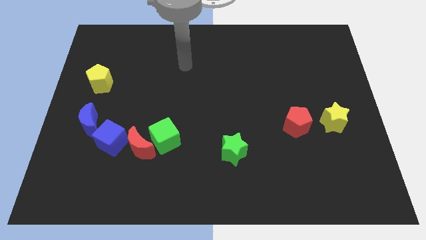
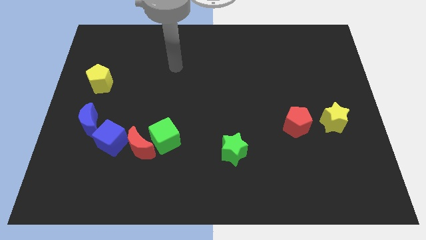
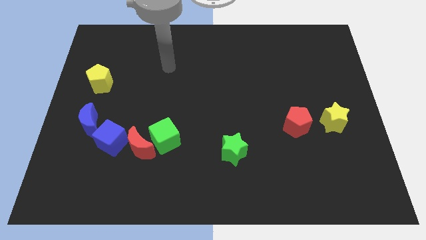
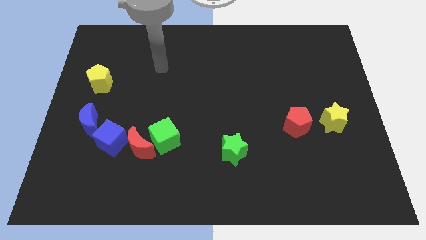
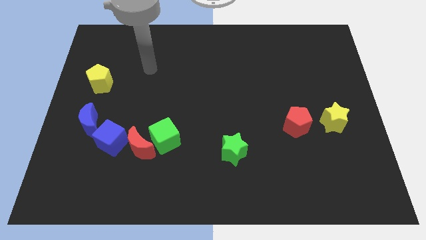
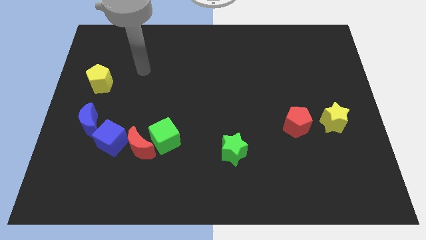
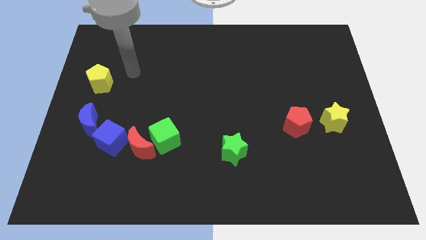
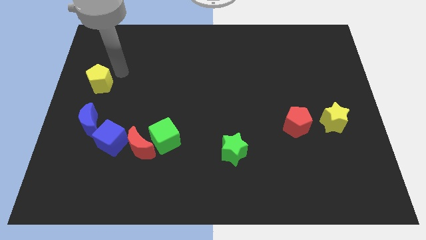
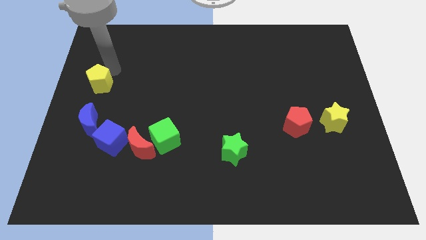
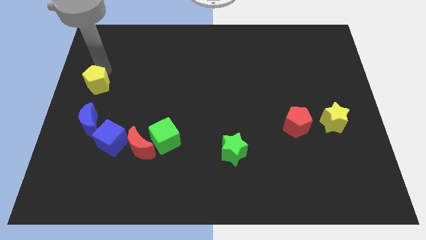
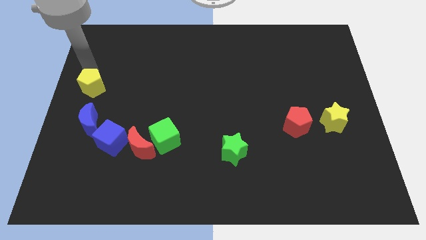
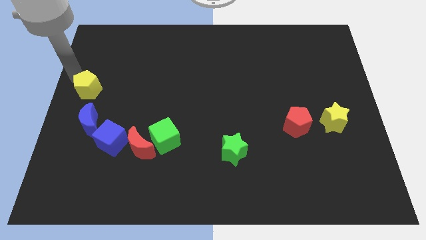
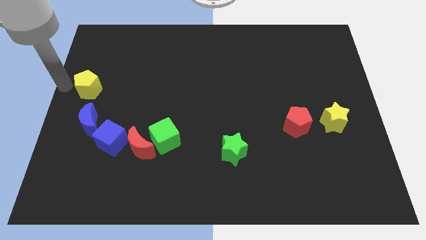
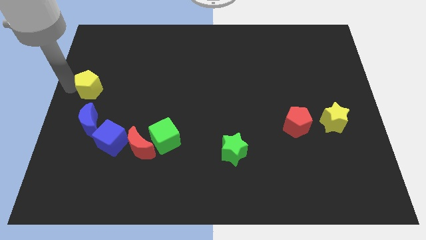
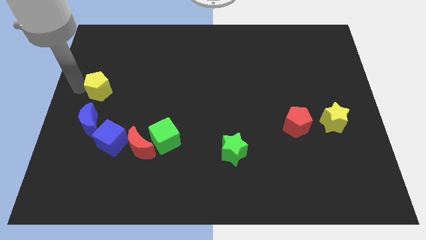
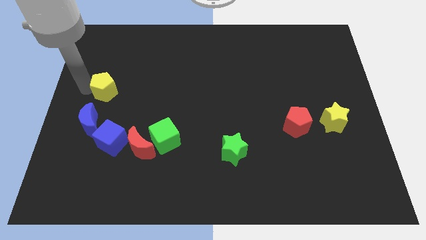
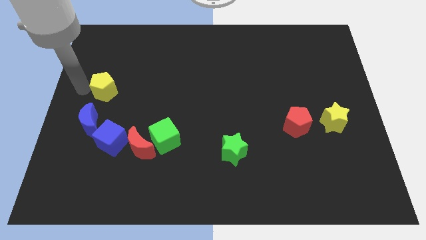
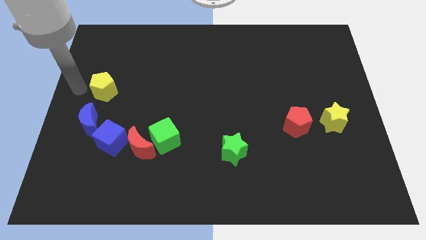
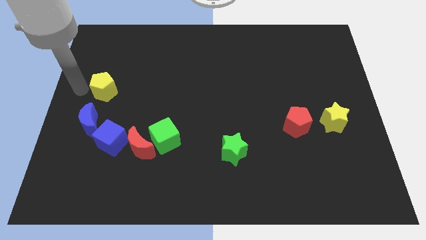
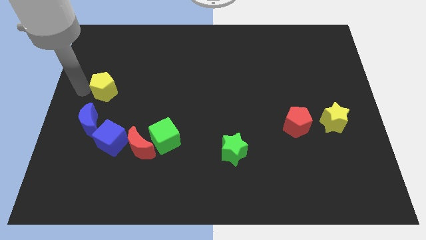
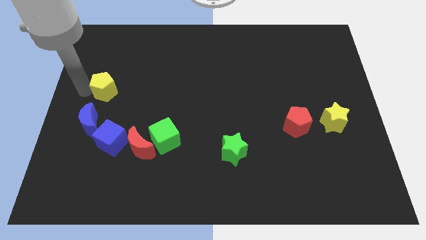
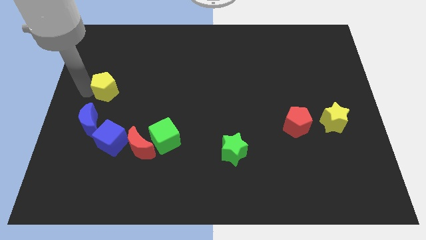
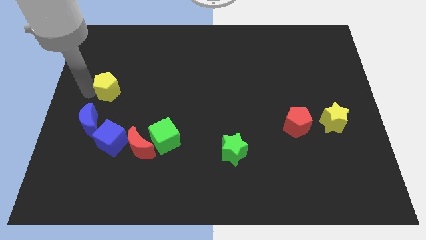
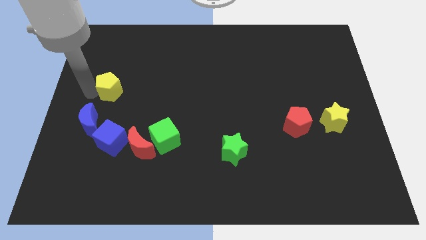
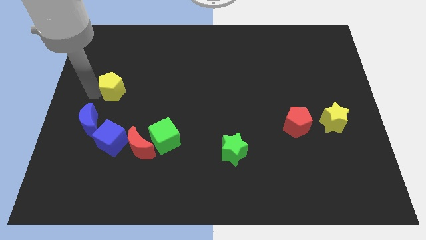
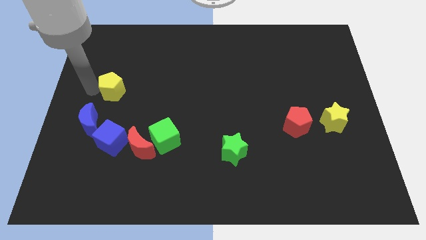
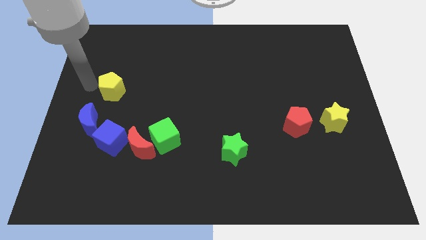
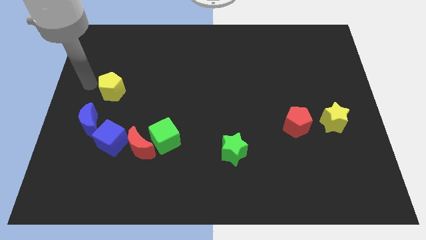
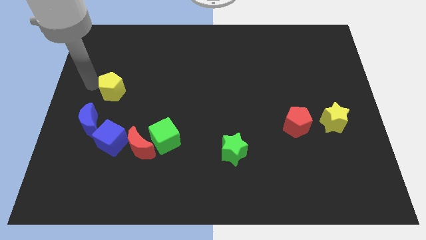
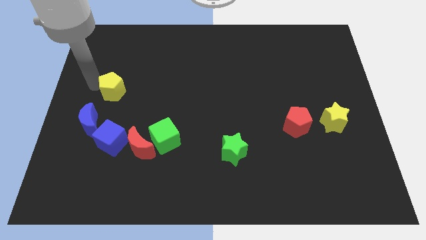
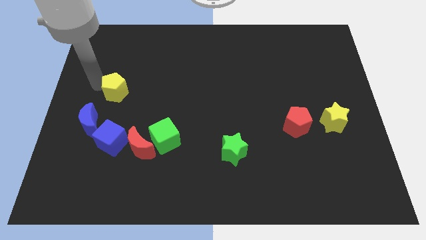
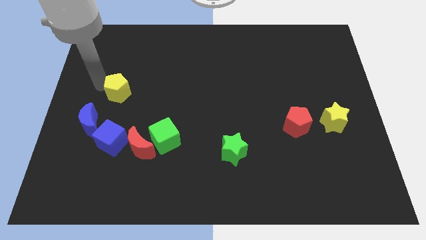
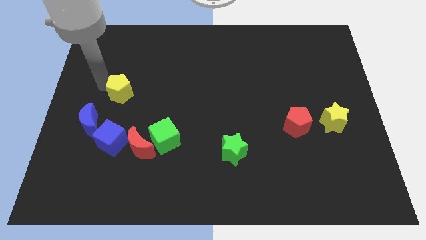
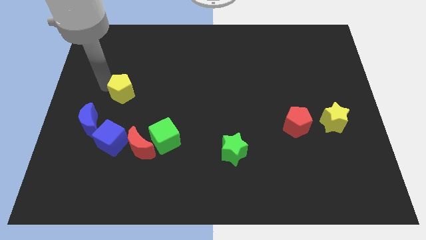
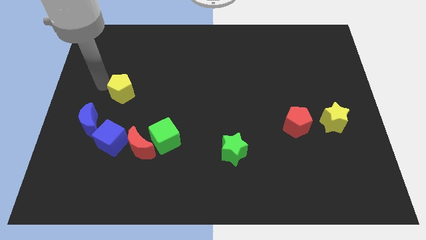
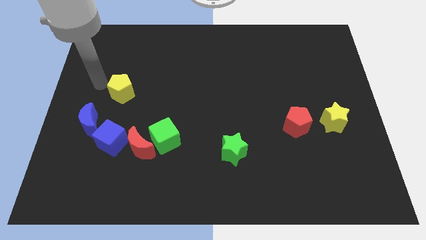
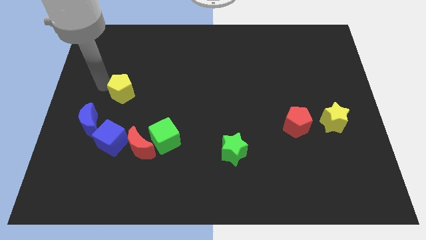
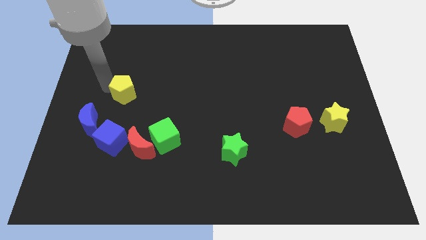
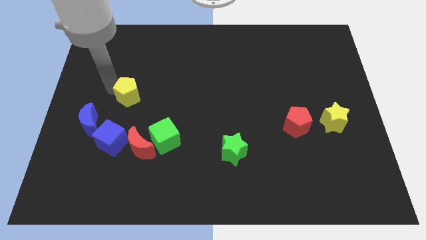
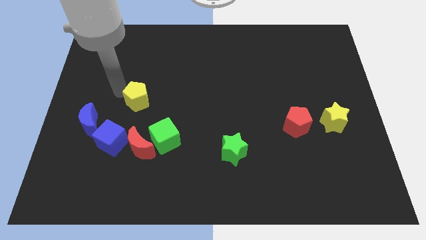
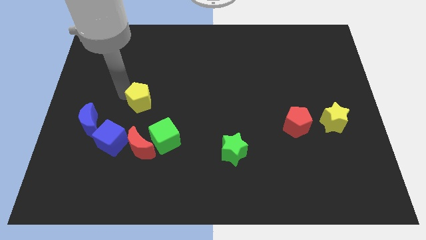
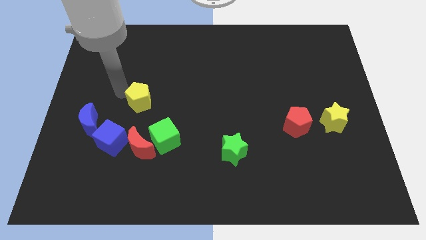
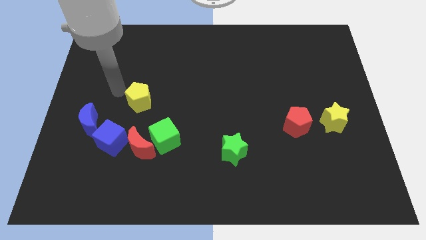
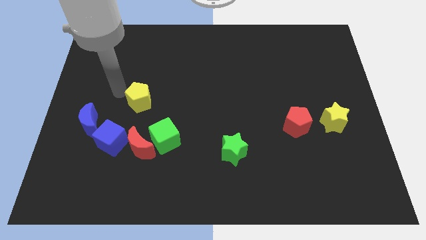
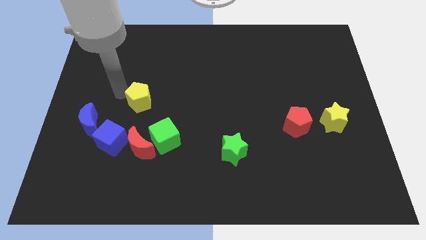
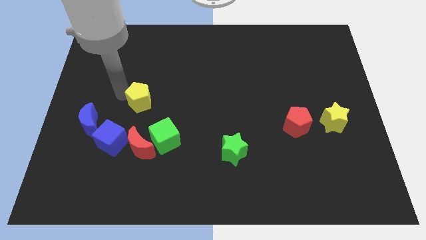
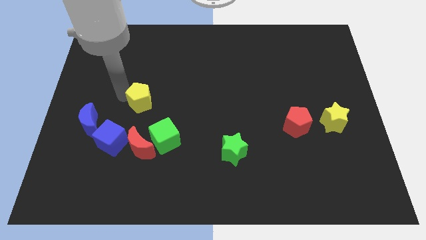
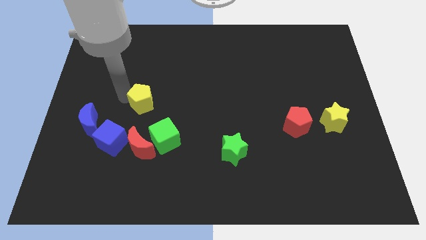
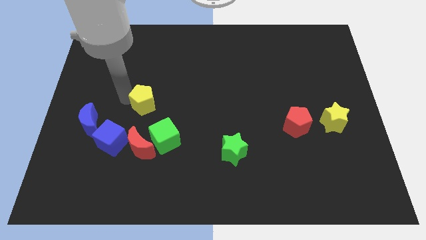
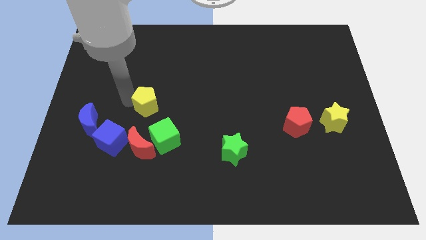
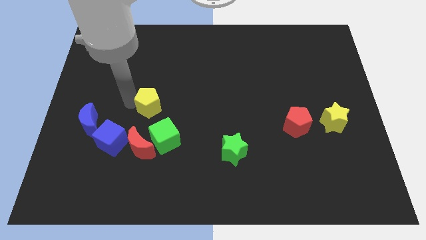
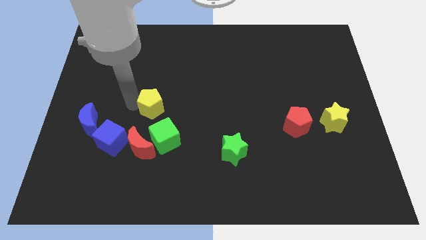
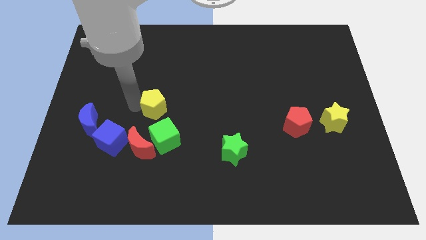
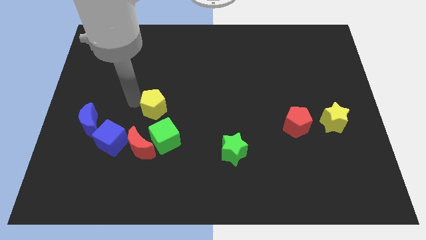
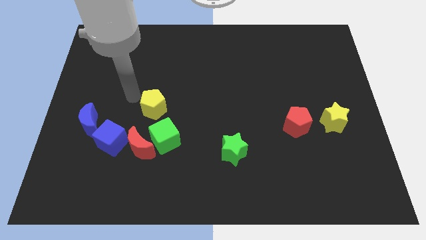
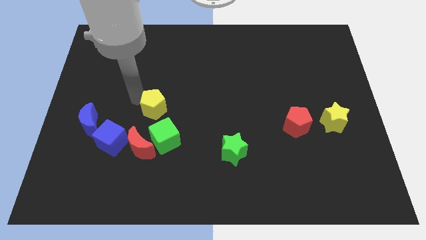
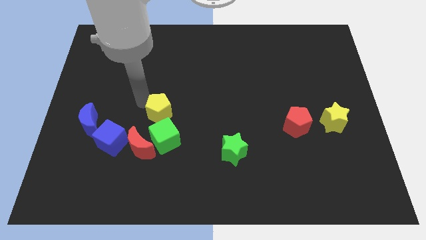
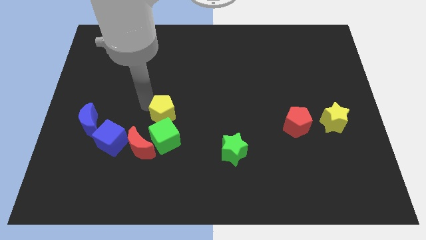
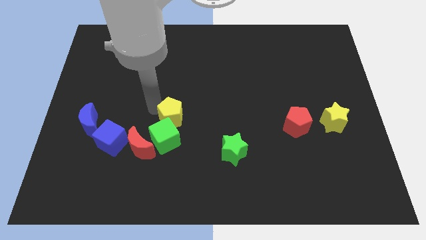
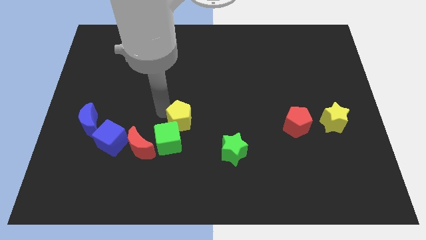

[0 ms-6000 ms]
push the yellow pentagon downwards and to the right

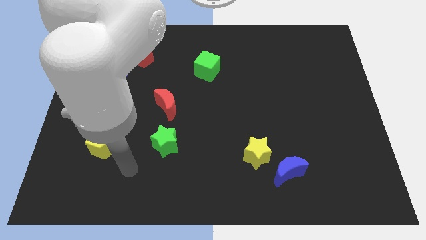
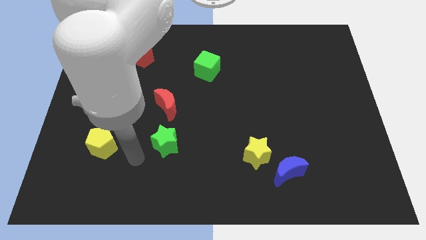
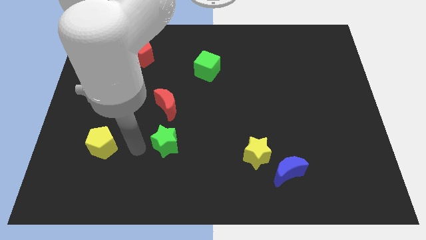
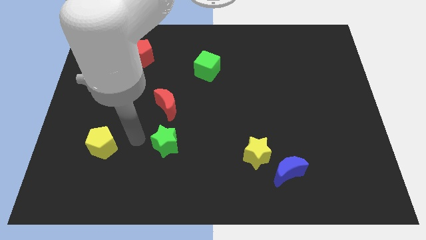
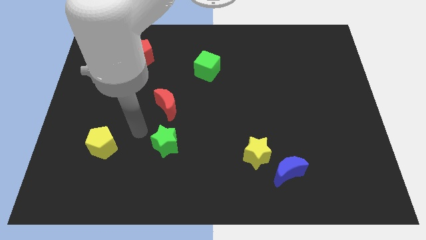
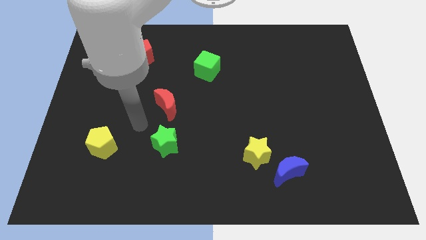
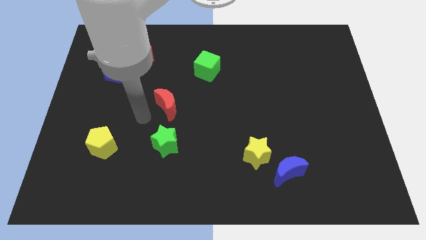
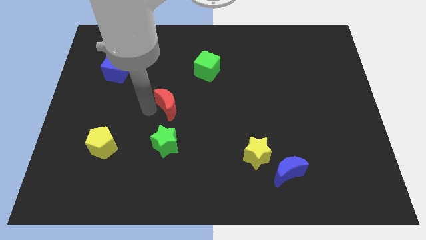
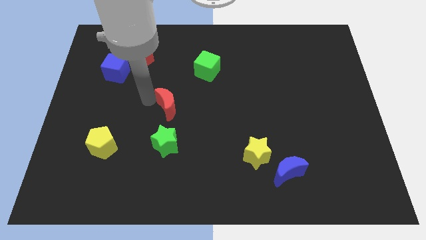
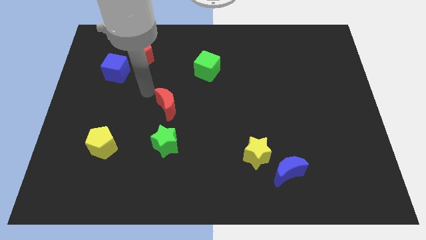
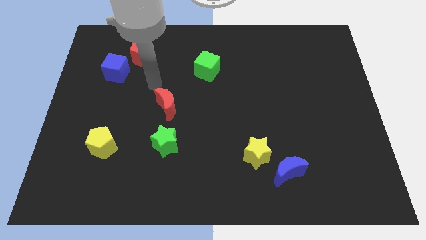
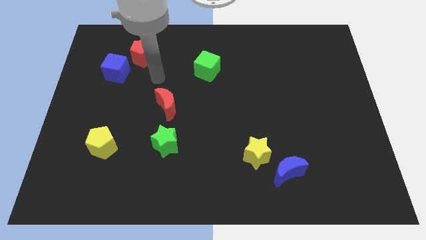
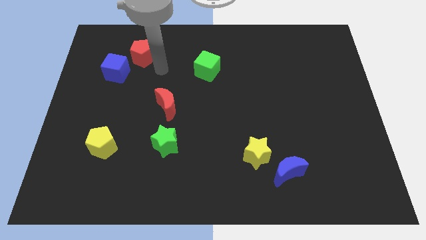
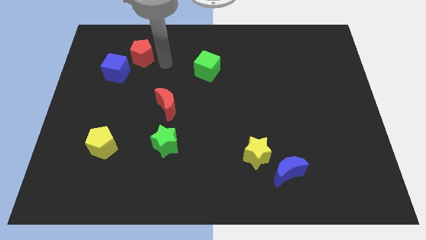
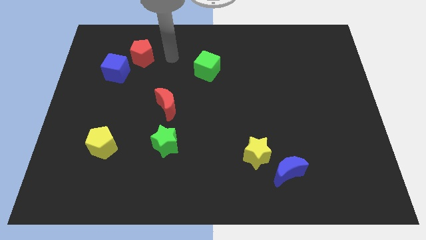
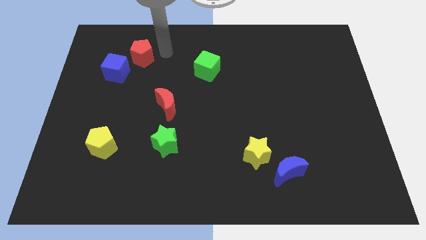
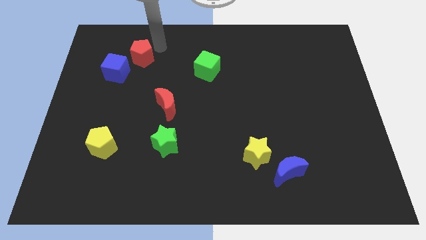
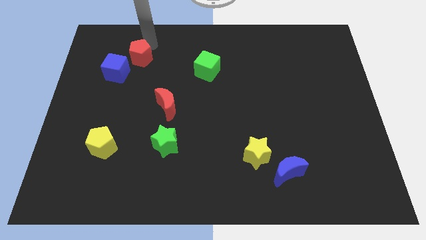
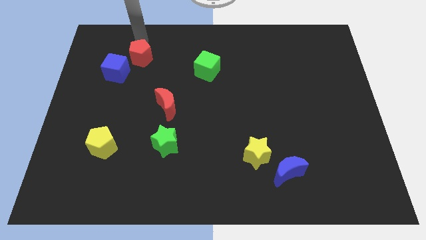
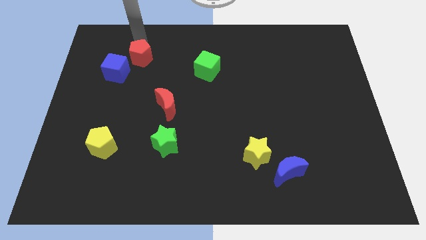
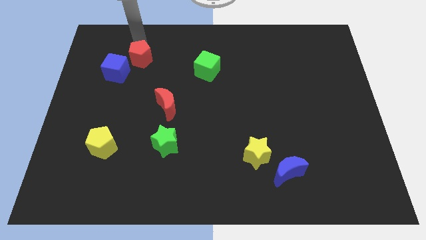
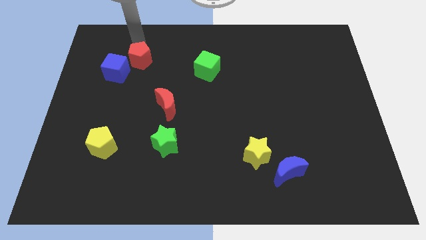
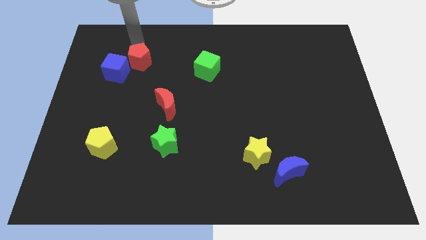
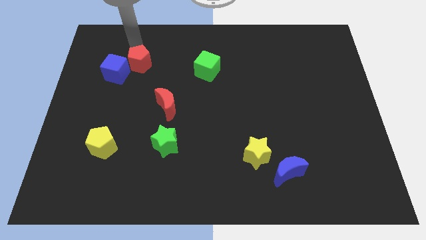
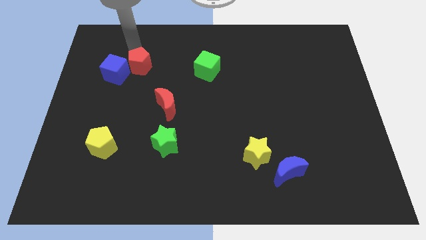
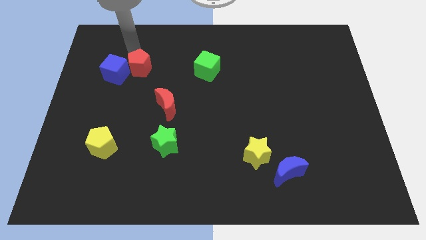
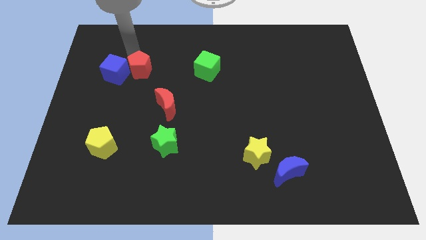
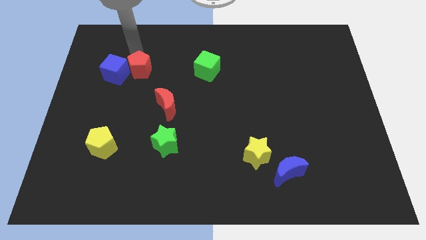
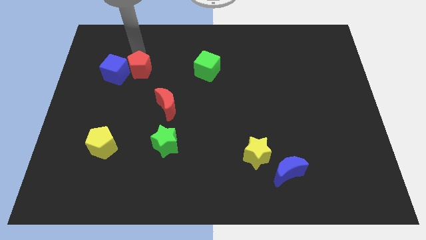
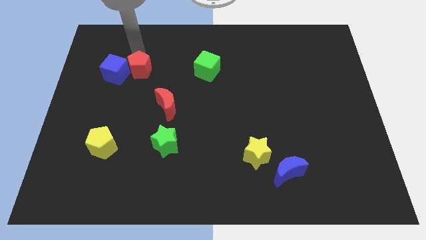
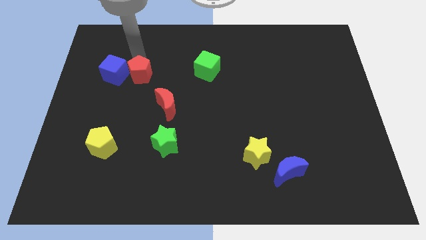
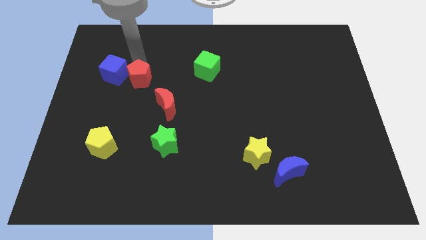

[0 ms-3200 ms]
slightly slide the red pentagon down
